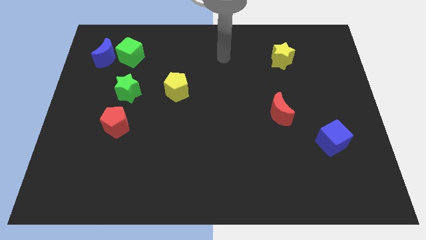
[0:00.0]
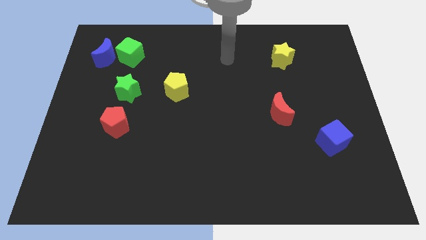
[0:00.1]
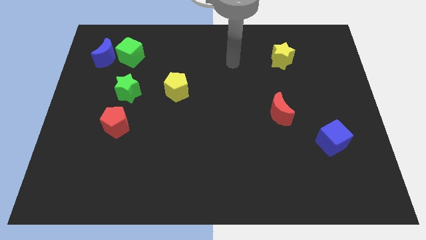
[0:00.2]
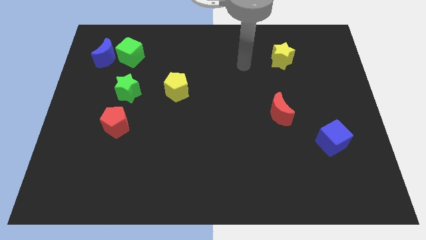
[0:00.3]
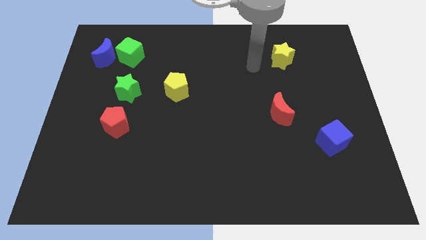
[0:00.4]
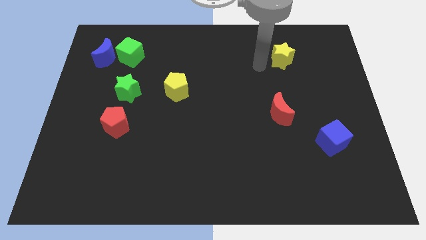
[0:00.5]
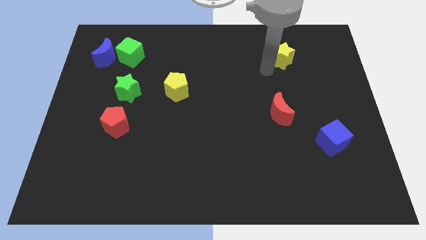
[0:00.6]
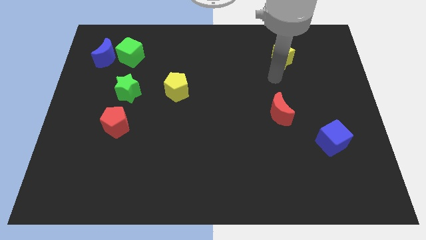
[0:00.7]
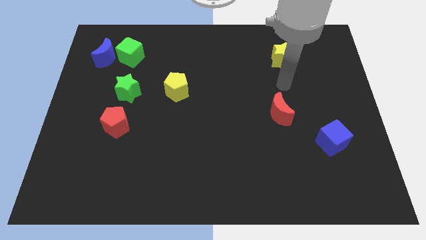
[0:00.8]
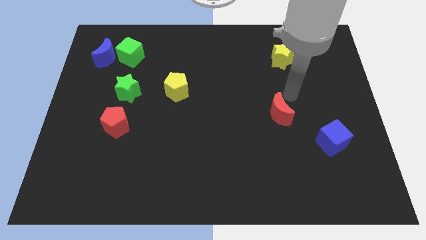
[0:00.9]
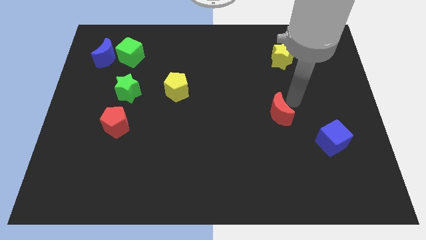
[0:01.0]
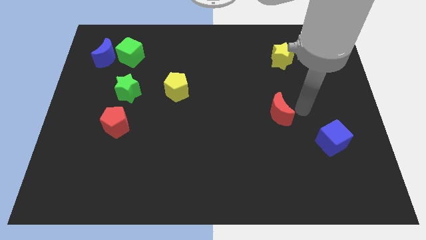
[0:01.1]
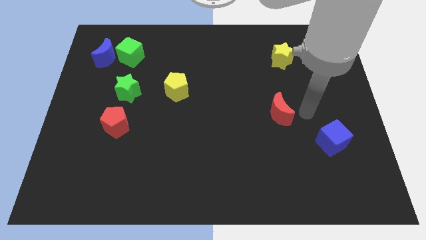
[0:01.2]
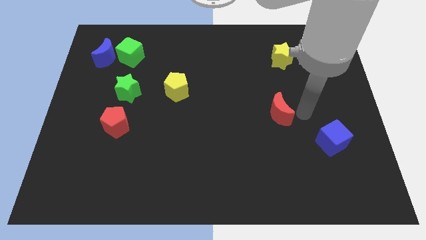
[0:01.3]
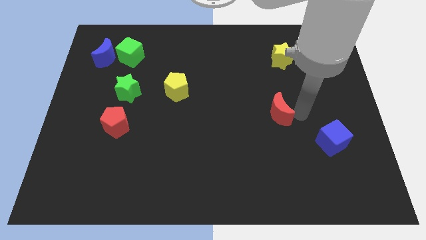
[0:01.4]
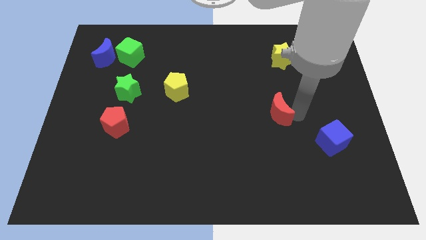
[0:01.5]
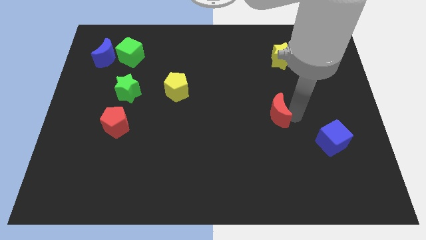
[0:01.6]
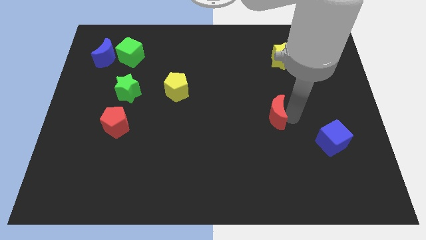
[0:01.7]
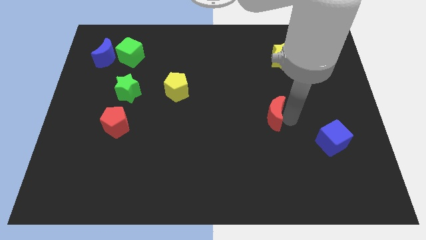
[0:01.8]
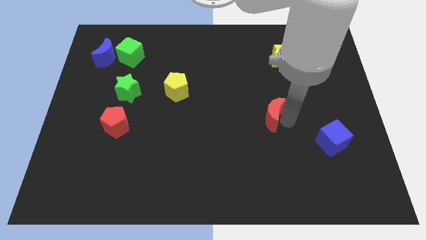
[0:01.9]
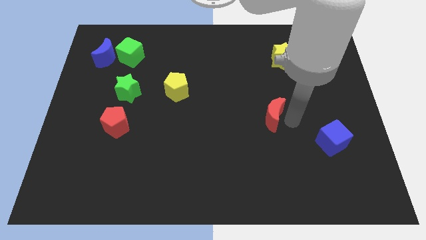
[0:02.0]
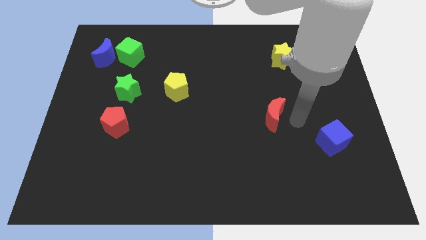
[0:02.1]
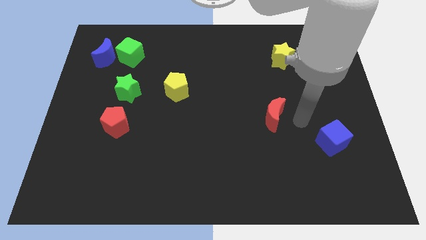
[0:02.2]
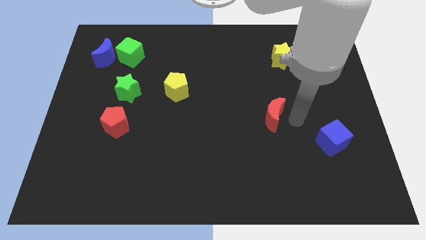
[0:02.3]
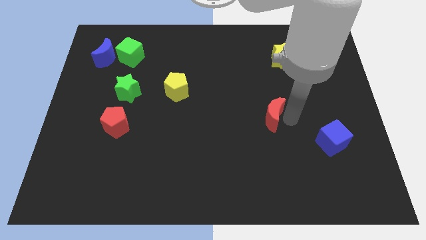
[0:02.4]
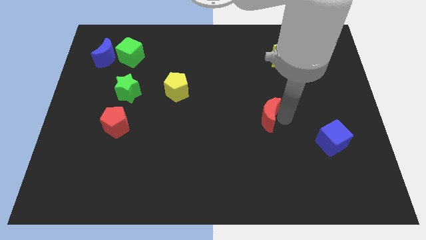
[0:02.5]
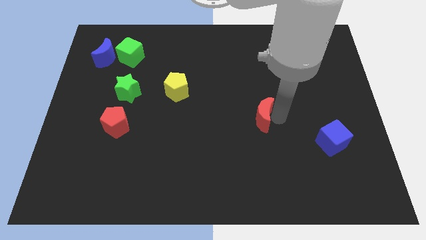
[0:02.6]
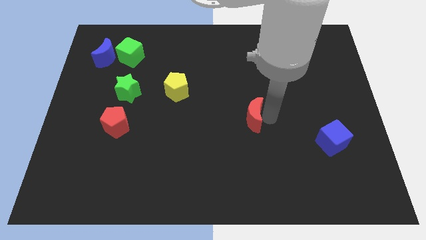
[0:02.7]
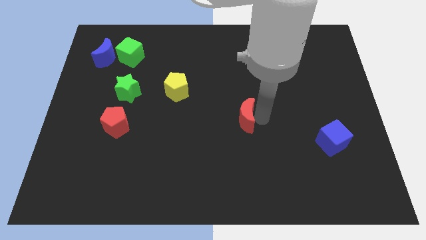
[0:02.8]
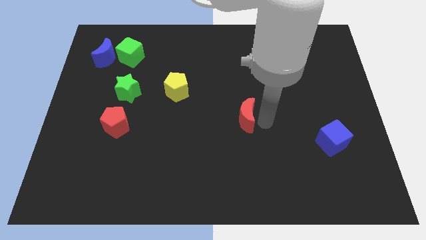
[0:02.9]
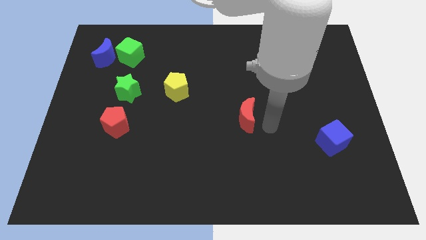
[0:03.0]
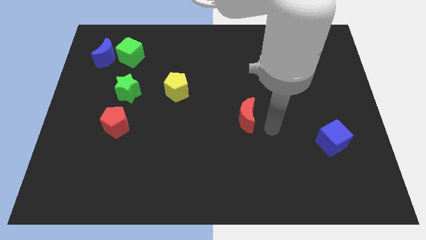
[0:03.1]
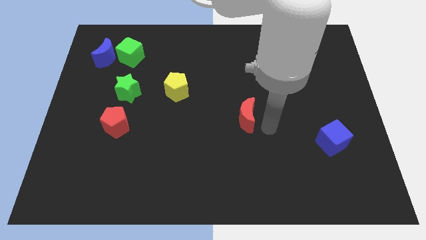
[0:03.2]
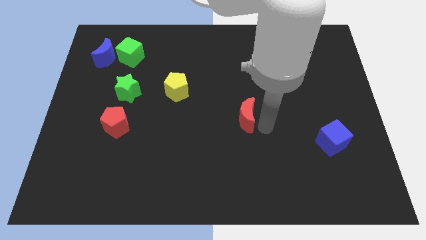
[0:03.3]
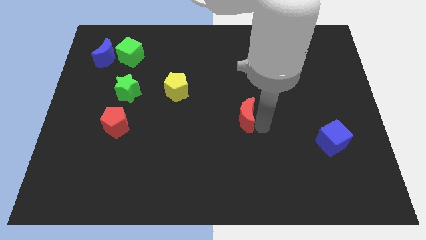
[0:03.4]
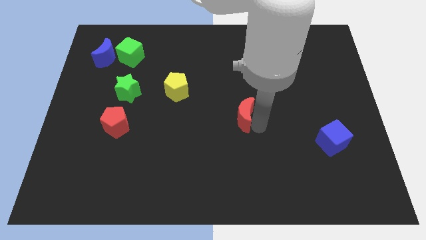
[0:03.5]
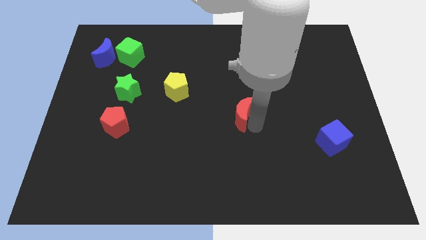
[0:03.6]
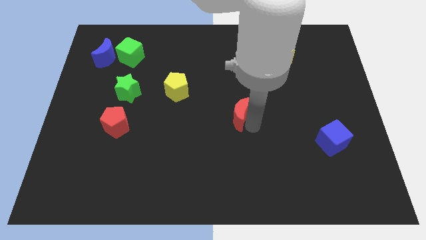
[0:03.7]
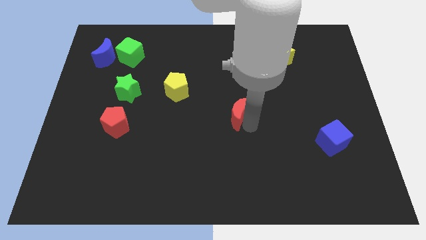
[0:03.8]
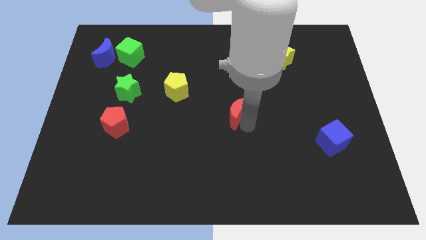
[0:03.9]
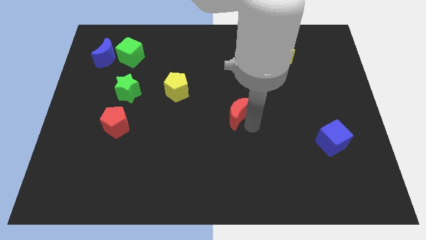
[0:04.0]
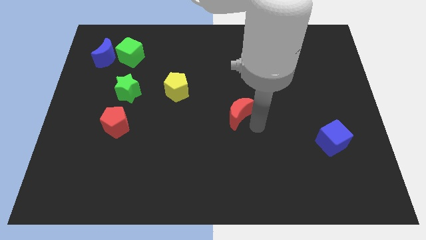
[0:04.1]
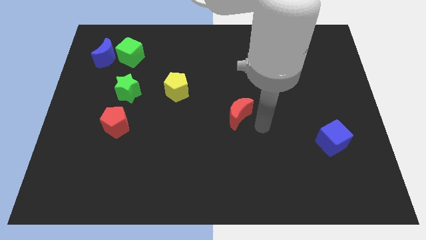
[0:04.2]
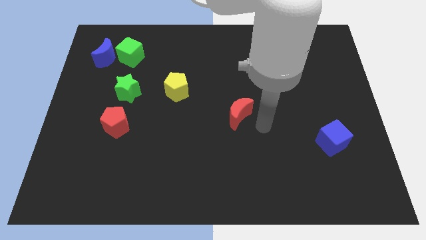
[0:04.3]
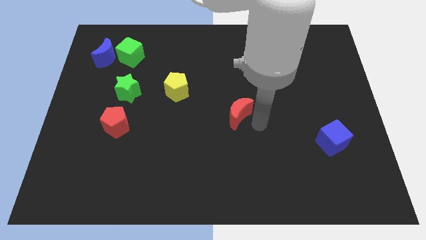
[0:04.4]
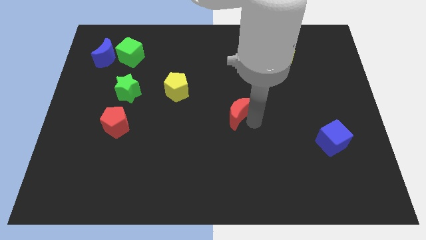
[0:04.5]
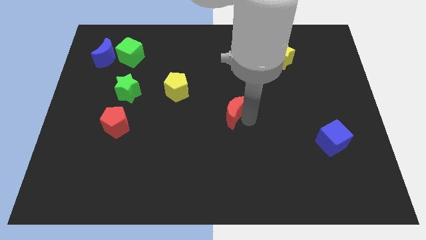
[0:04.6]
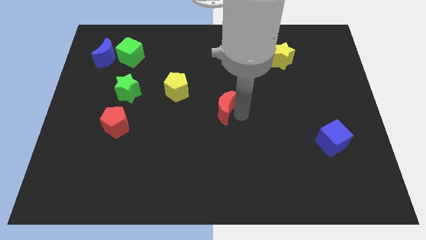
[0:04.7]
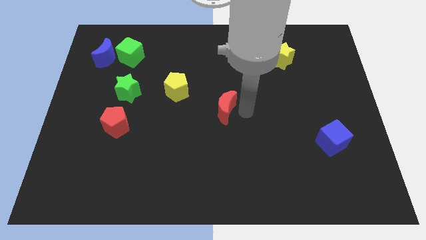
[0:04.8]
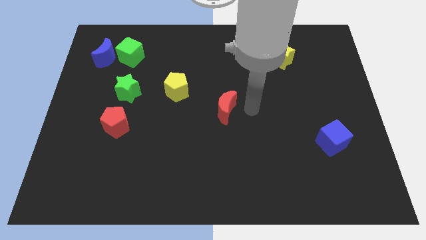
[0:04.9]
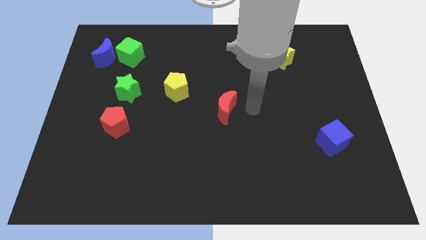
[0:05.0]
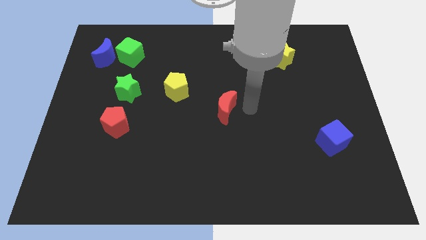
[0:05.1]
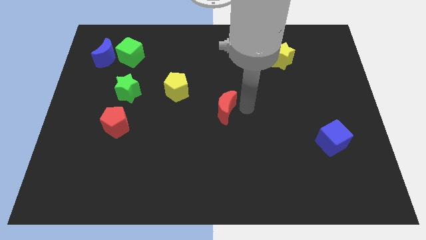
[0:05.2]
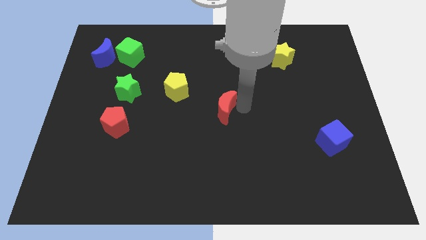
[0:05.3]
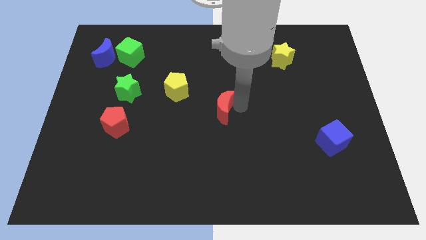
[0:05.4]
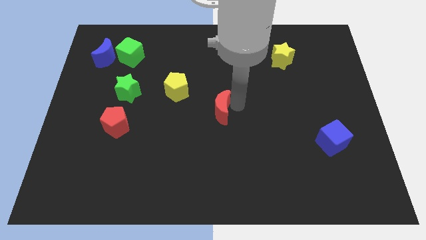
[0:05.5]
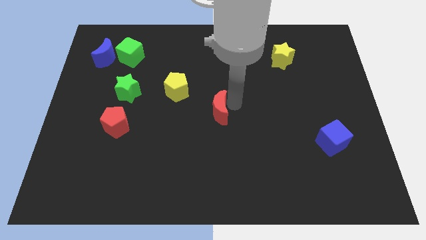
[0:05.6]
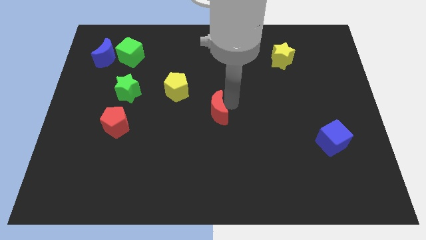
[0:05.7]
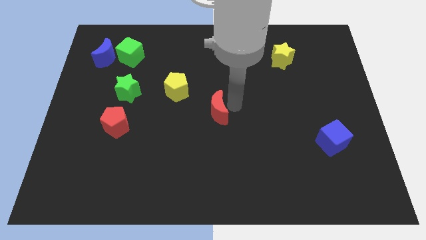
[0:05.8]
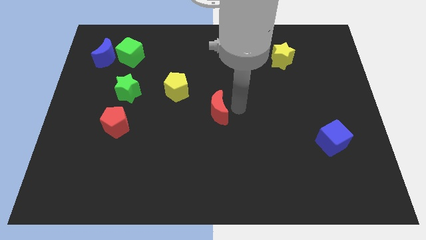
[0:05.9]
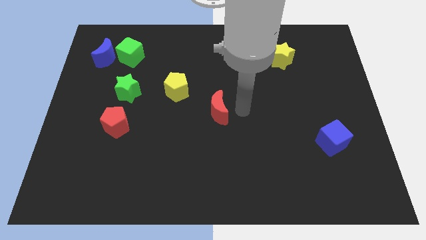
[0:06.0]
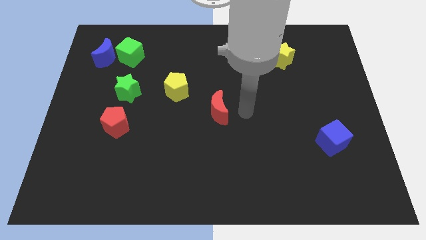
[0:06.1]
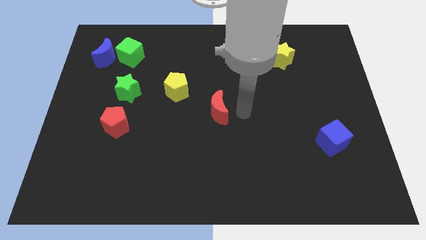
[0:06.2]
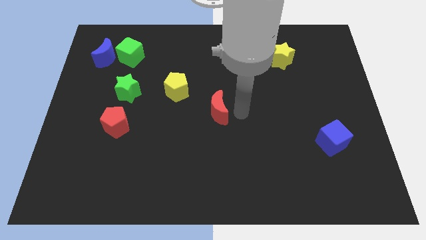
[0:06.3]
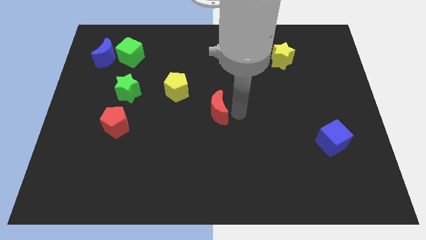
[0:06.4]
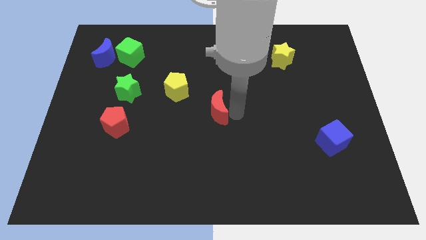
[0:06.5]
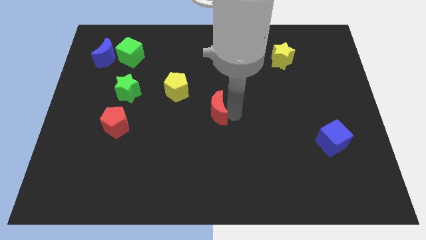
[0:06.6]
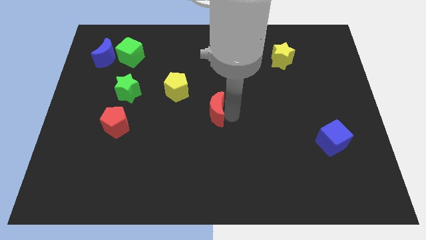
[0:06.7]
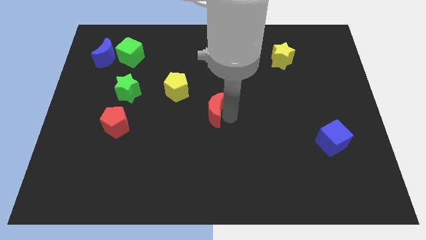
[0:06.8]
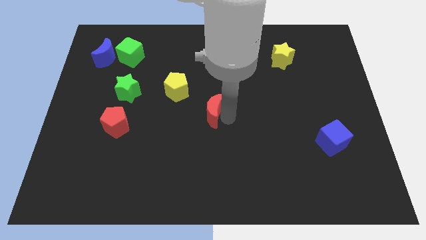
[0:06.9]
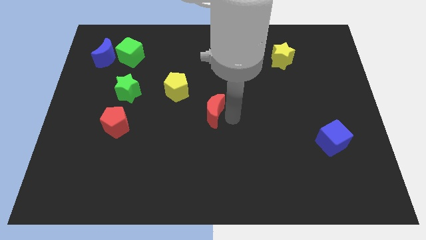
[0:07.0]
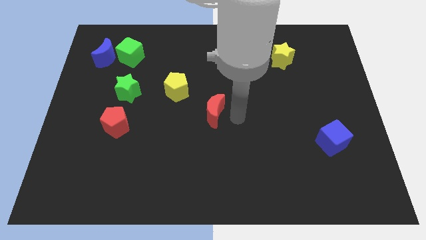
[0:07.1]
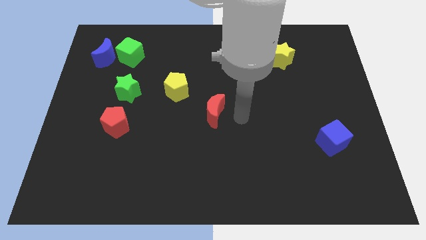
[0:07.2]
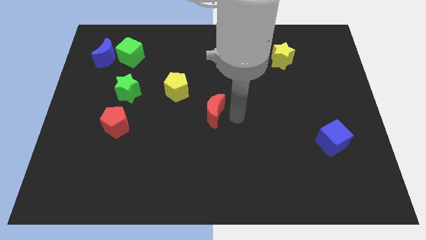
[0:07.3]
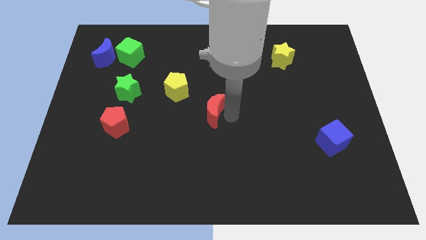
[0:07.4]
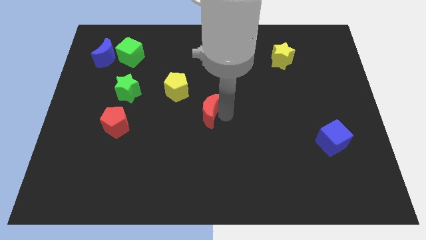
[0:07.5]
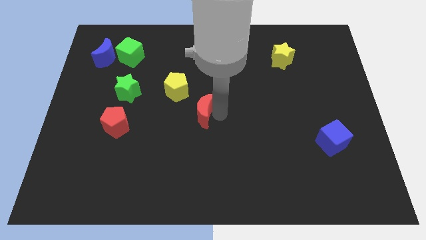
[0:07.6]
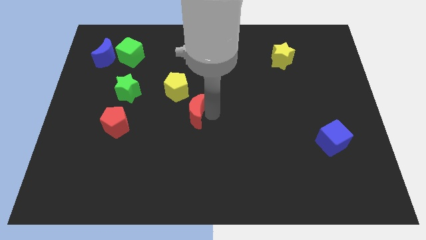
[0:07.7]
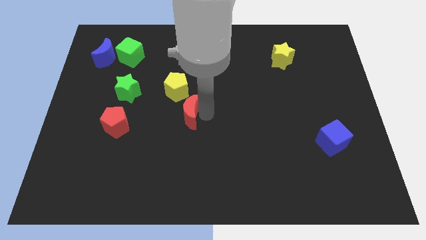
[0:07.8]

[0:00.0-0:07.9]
slide the red moon to the left
